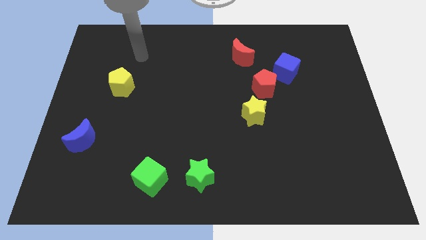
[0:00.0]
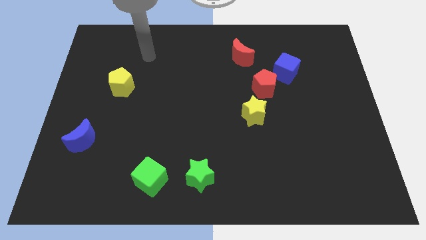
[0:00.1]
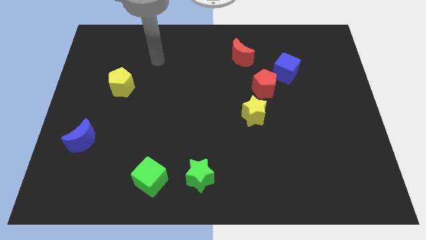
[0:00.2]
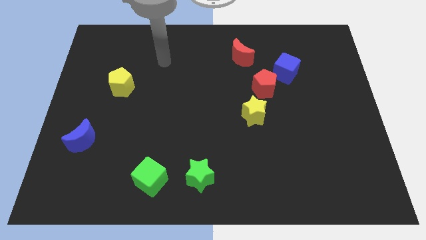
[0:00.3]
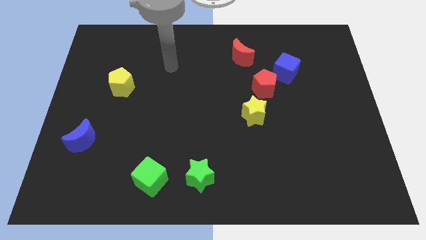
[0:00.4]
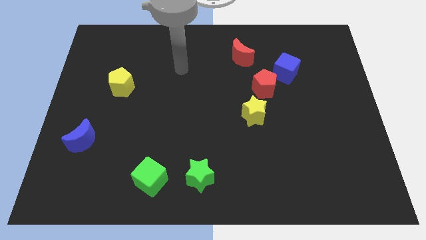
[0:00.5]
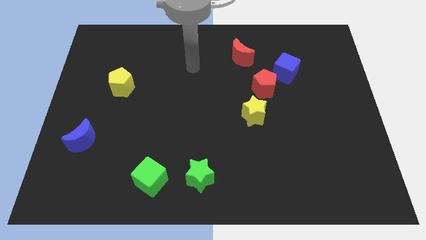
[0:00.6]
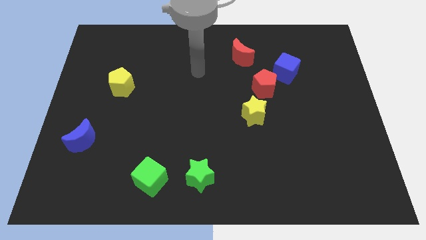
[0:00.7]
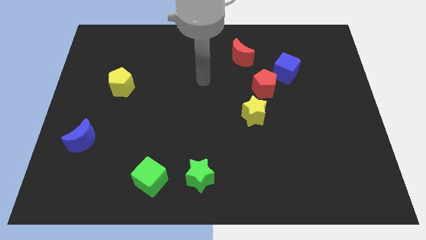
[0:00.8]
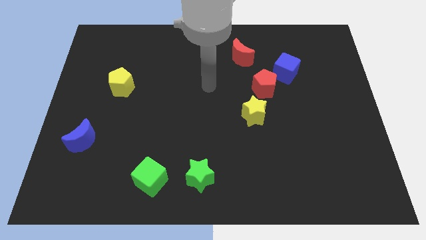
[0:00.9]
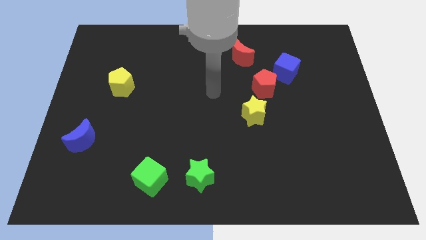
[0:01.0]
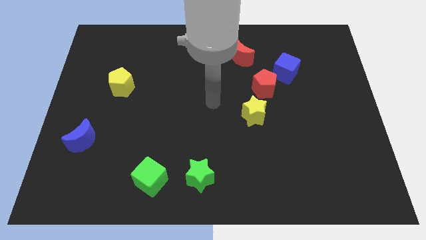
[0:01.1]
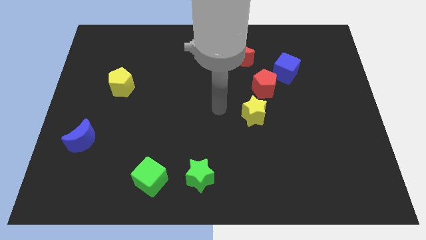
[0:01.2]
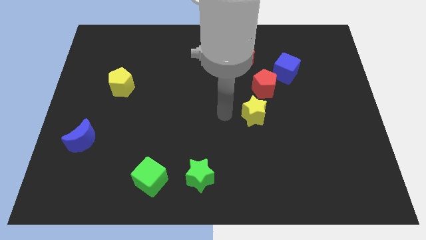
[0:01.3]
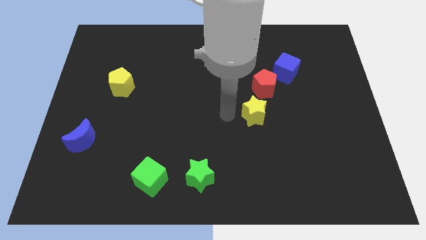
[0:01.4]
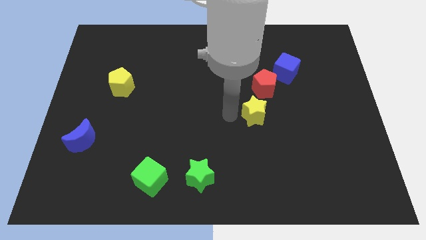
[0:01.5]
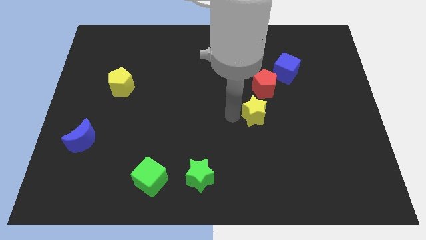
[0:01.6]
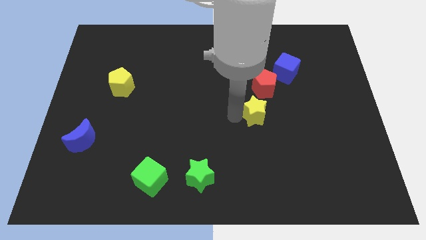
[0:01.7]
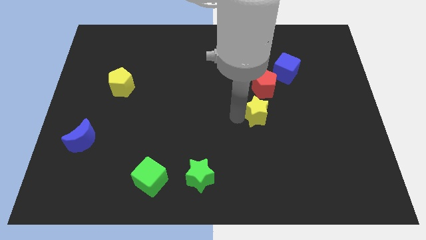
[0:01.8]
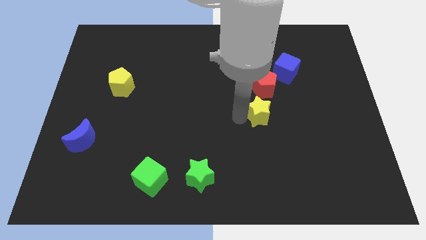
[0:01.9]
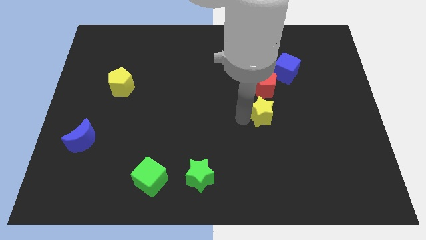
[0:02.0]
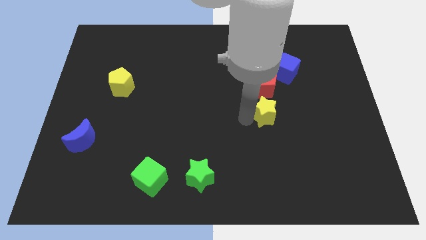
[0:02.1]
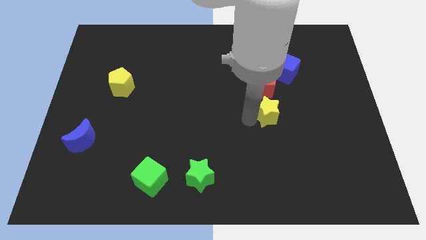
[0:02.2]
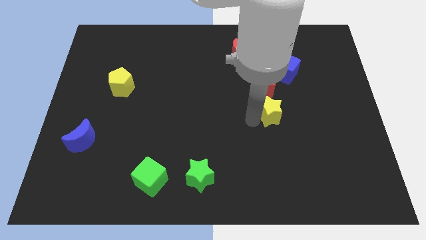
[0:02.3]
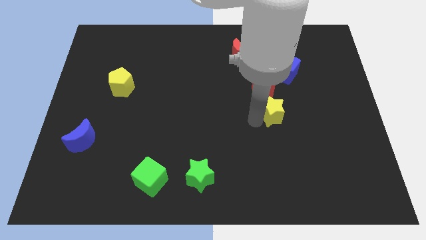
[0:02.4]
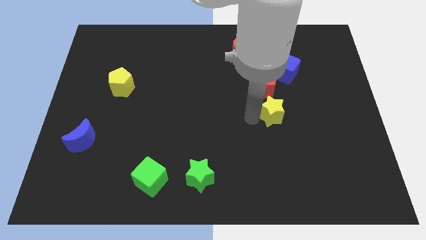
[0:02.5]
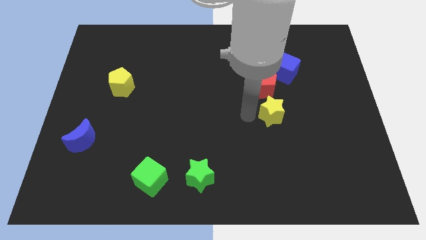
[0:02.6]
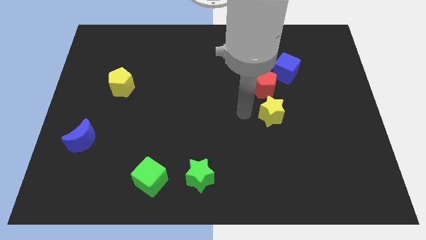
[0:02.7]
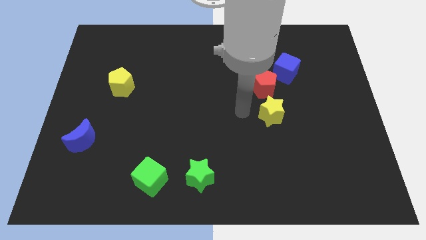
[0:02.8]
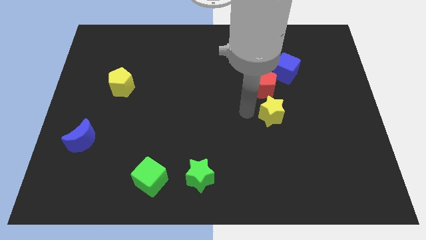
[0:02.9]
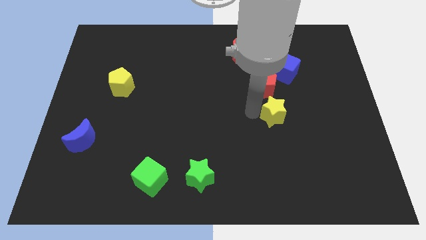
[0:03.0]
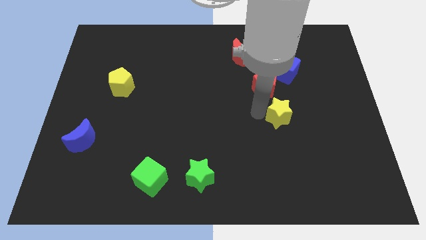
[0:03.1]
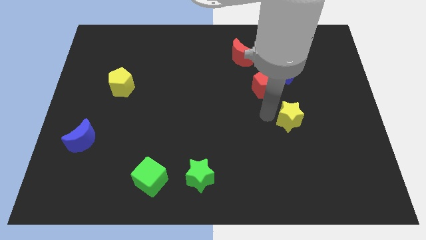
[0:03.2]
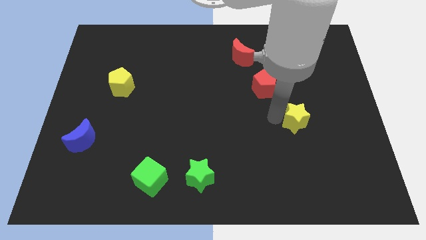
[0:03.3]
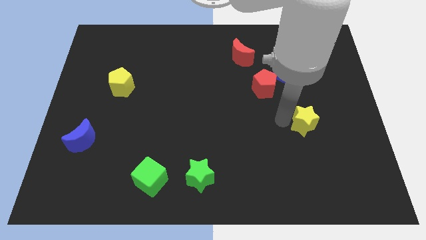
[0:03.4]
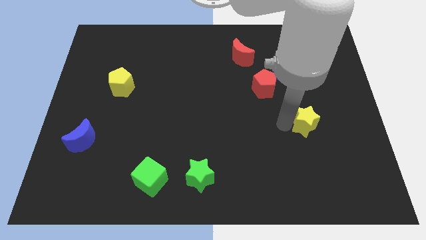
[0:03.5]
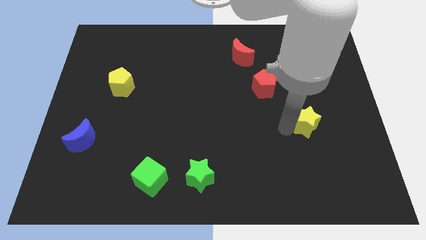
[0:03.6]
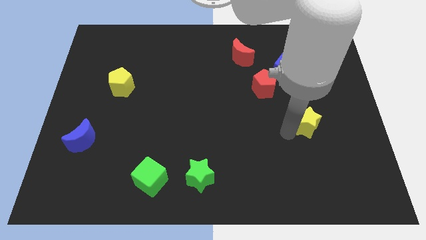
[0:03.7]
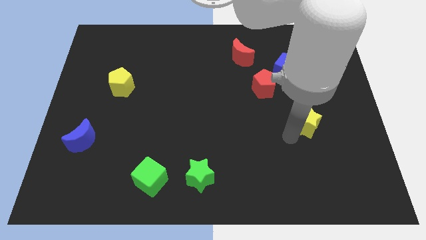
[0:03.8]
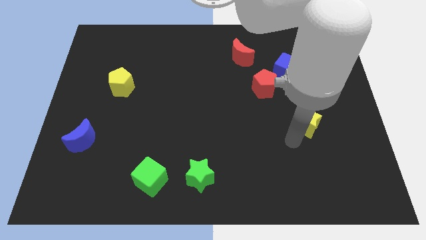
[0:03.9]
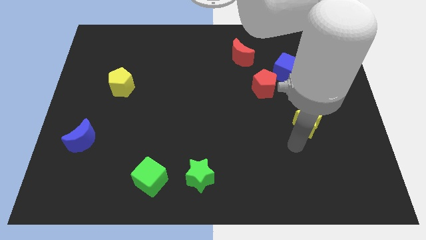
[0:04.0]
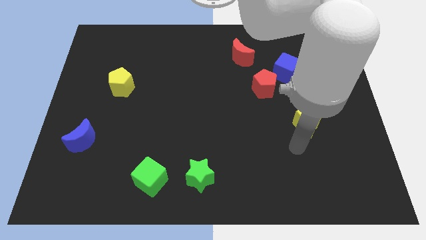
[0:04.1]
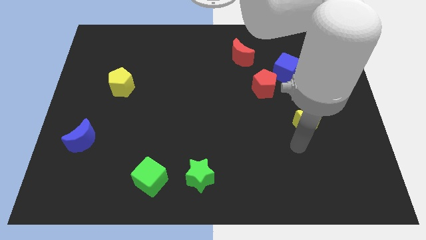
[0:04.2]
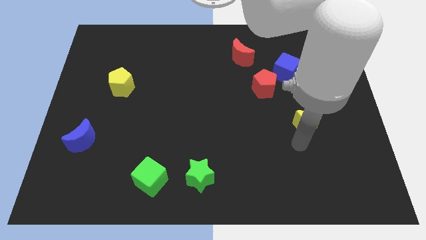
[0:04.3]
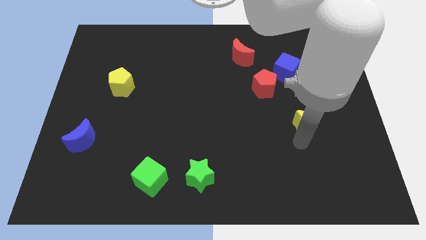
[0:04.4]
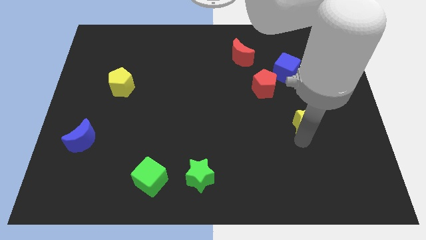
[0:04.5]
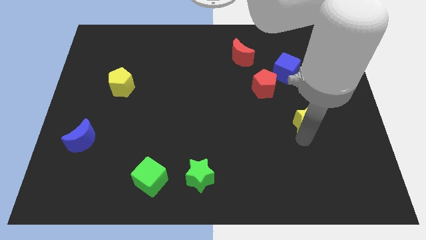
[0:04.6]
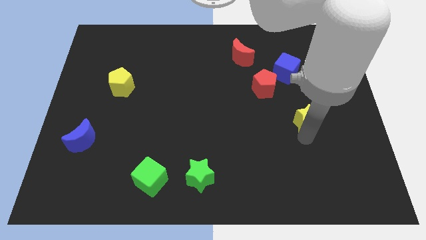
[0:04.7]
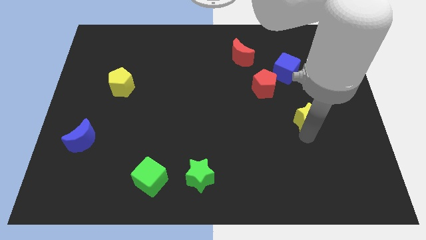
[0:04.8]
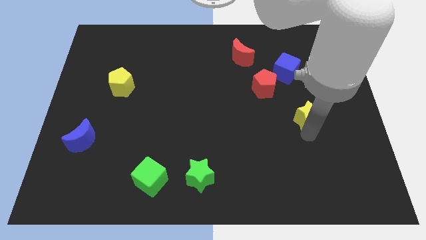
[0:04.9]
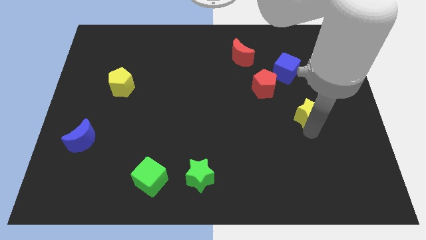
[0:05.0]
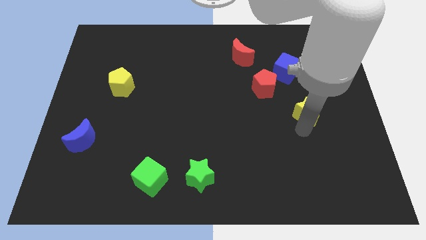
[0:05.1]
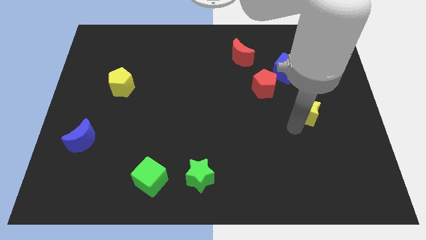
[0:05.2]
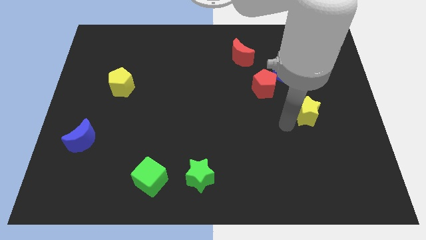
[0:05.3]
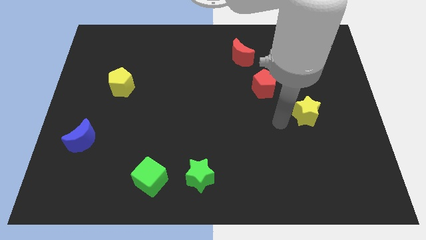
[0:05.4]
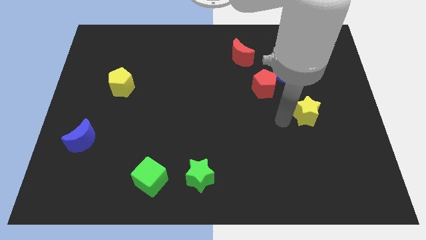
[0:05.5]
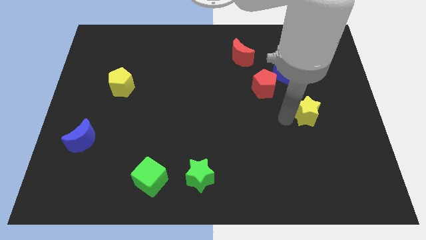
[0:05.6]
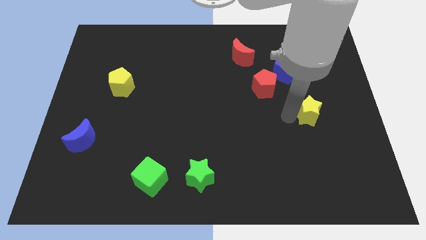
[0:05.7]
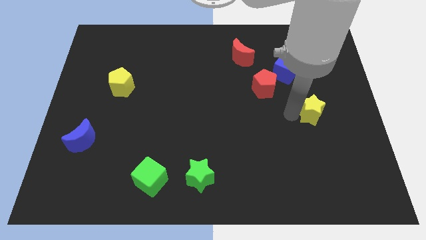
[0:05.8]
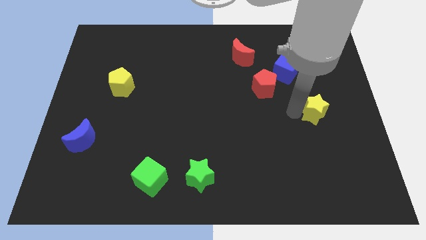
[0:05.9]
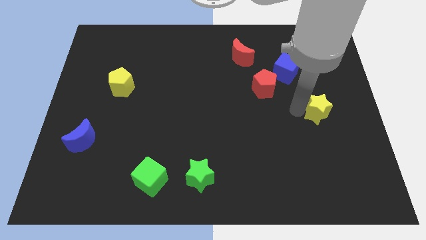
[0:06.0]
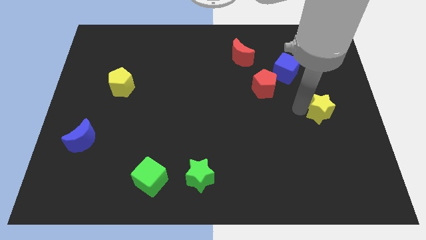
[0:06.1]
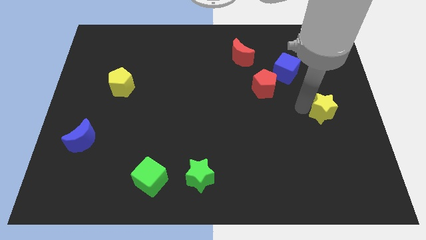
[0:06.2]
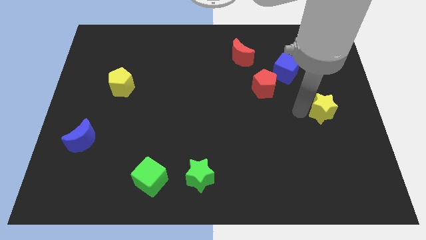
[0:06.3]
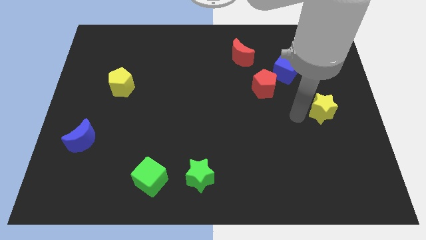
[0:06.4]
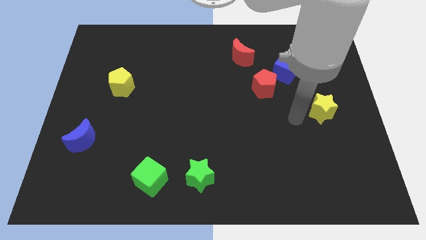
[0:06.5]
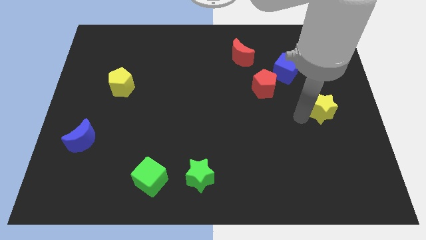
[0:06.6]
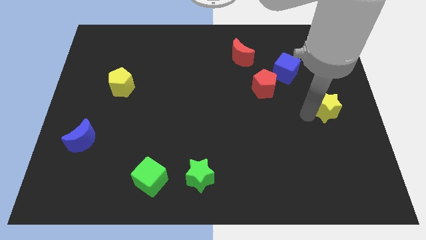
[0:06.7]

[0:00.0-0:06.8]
slide the yellow star to the center right

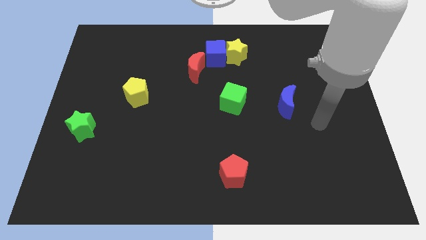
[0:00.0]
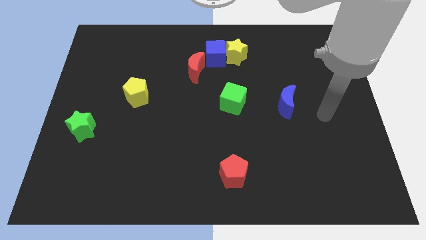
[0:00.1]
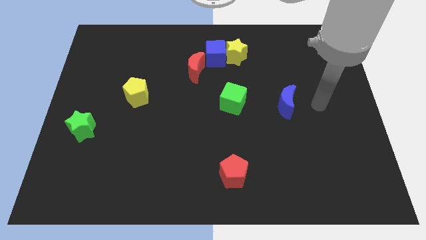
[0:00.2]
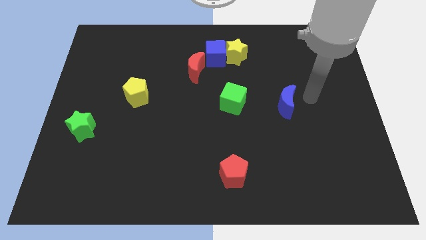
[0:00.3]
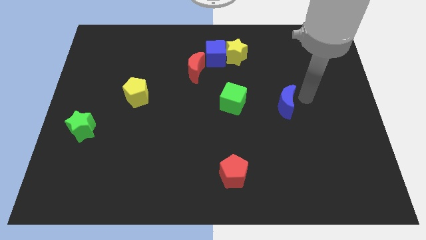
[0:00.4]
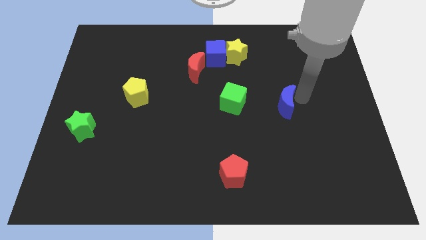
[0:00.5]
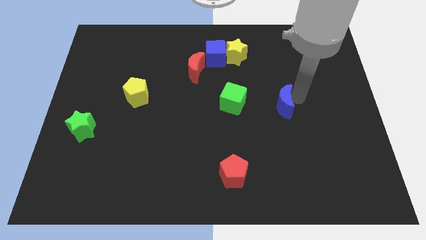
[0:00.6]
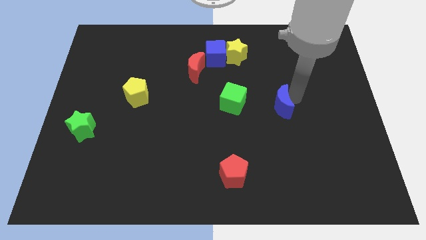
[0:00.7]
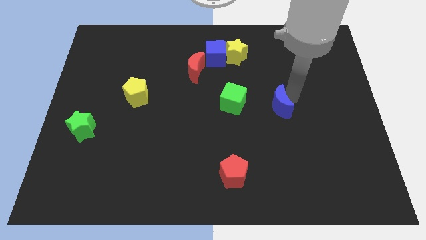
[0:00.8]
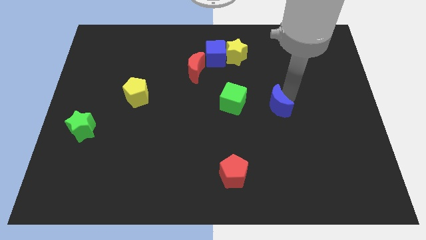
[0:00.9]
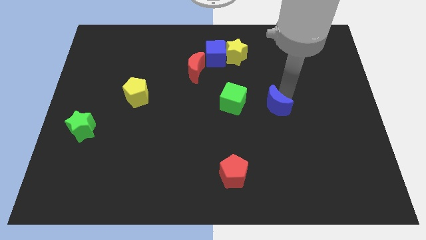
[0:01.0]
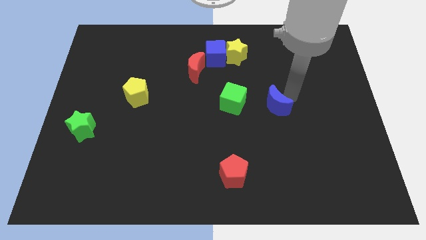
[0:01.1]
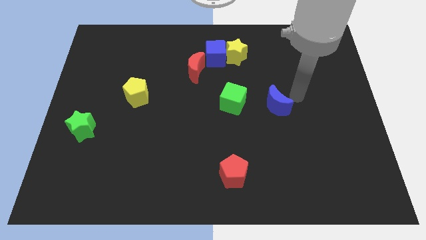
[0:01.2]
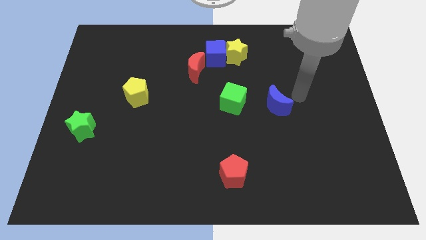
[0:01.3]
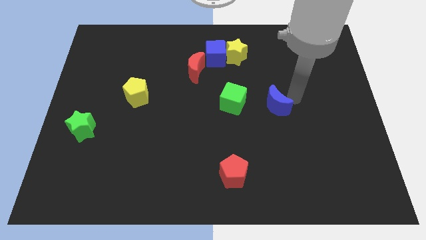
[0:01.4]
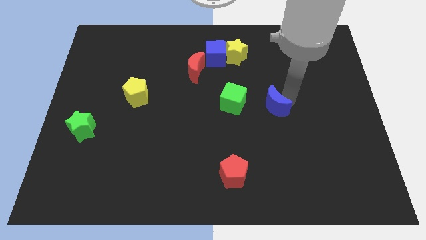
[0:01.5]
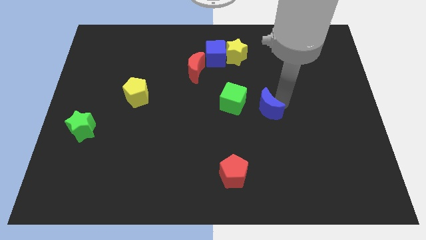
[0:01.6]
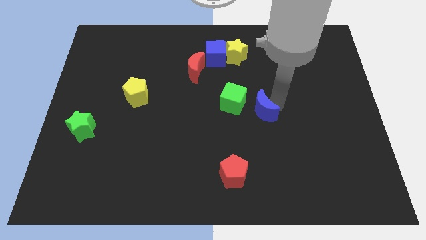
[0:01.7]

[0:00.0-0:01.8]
push the blue moon to the middle
